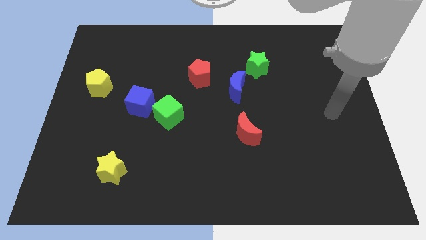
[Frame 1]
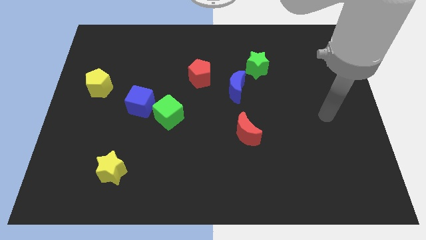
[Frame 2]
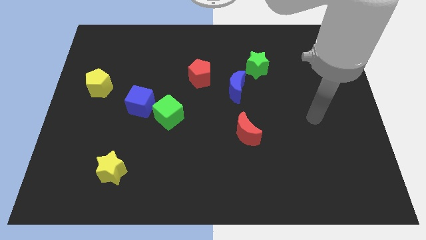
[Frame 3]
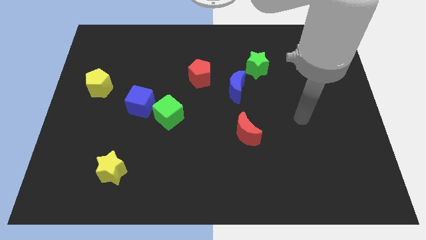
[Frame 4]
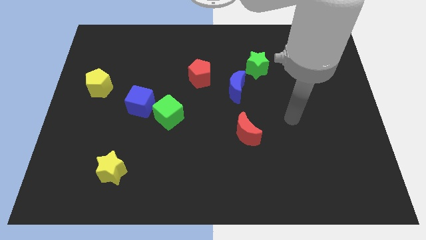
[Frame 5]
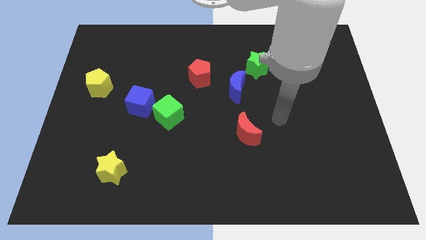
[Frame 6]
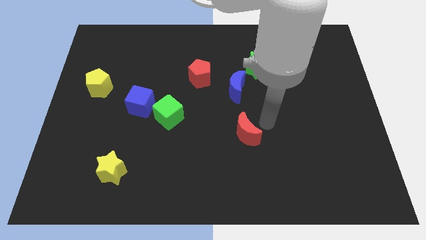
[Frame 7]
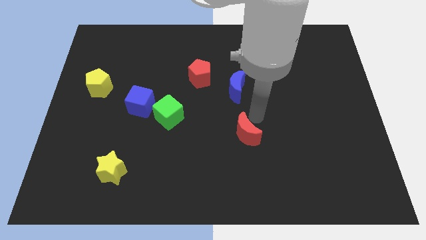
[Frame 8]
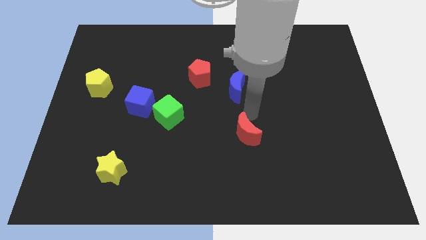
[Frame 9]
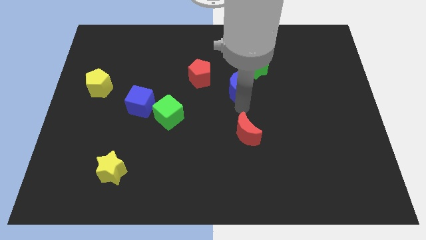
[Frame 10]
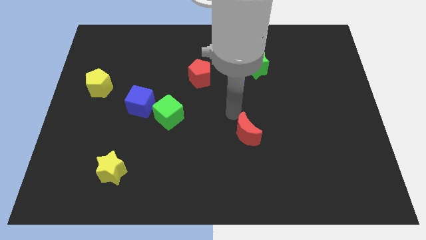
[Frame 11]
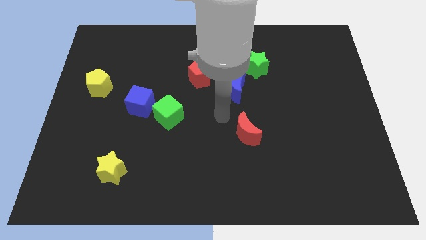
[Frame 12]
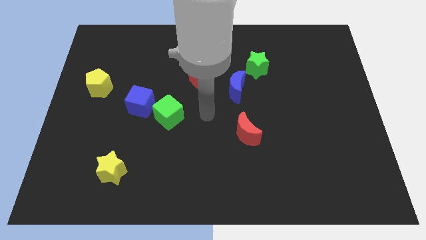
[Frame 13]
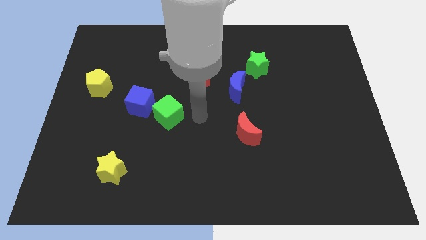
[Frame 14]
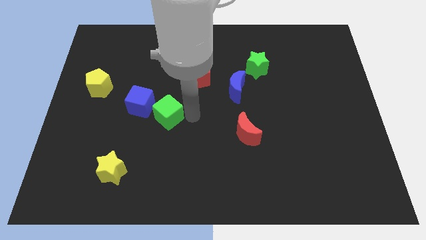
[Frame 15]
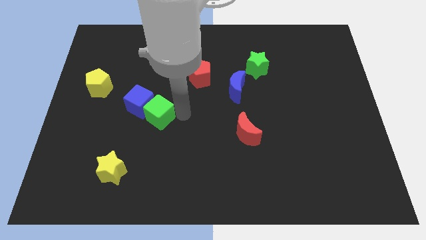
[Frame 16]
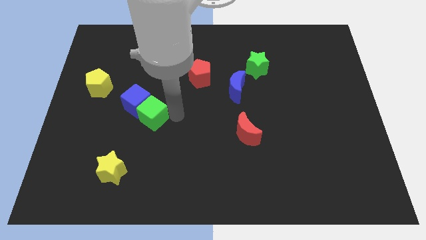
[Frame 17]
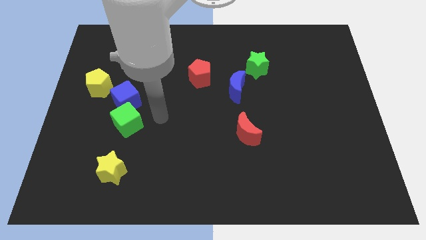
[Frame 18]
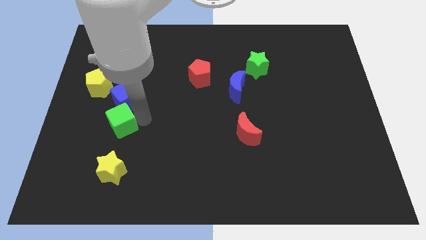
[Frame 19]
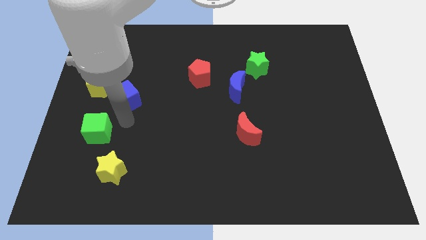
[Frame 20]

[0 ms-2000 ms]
move the blue cube away from the green cube

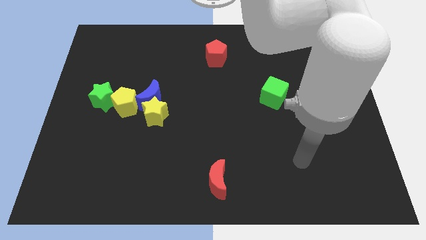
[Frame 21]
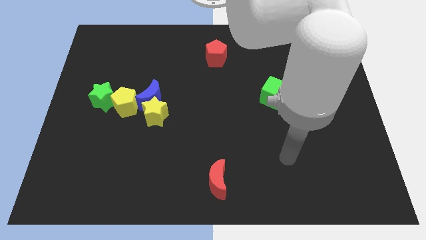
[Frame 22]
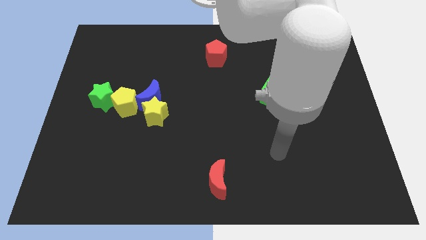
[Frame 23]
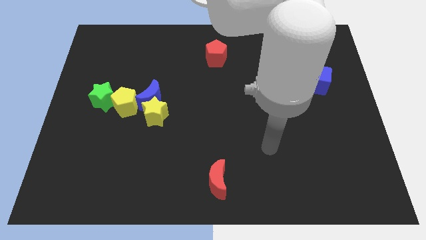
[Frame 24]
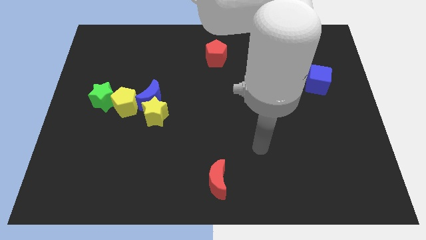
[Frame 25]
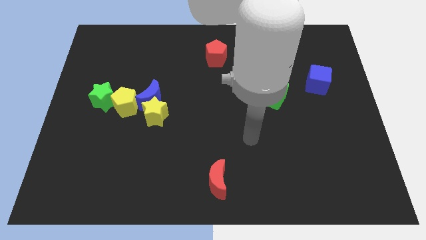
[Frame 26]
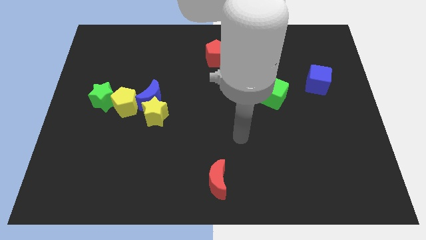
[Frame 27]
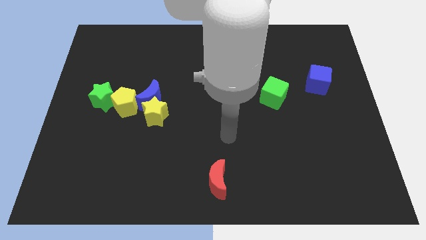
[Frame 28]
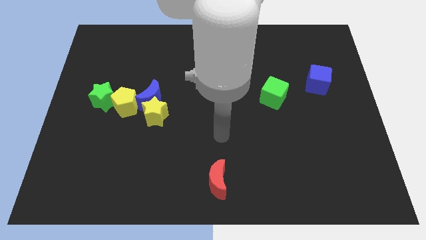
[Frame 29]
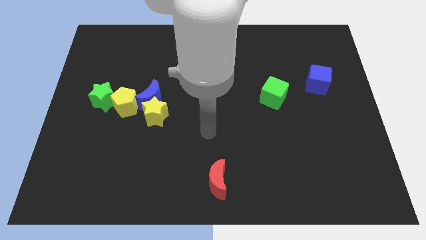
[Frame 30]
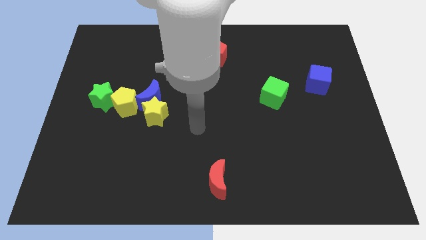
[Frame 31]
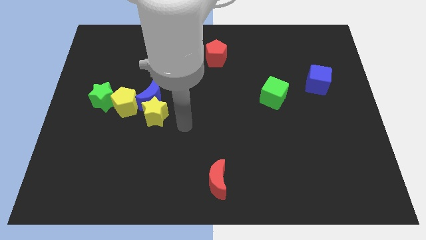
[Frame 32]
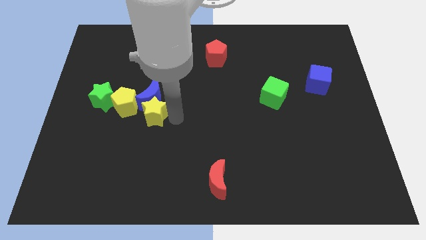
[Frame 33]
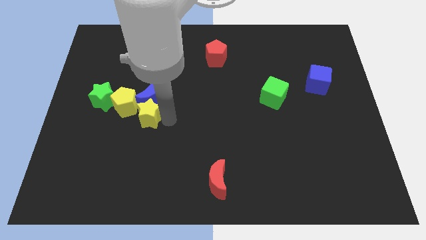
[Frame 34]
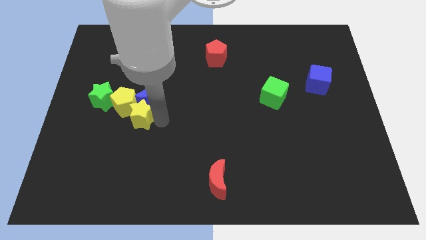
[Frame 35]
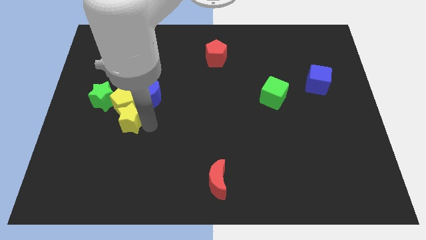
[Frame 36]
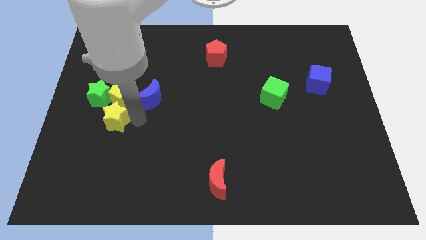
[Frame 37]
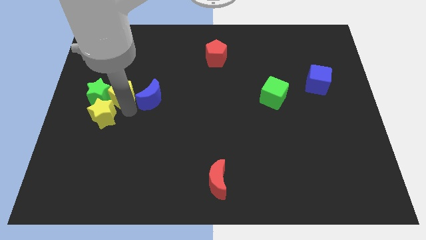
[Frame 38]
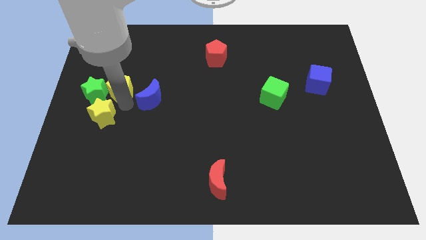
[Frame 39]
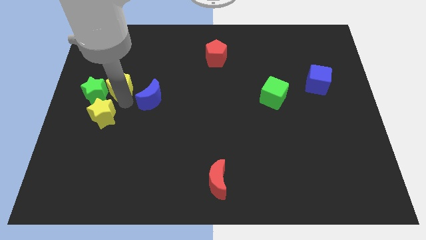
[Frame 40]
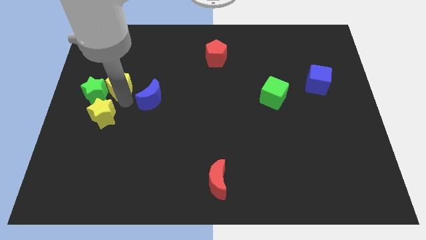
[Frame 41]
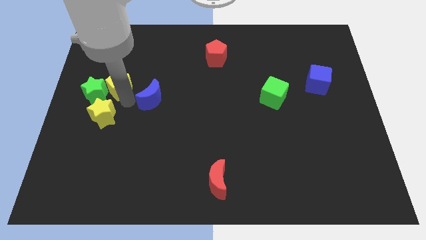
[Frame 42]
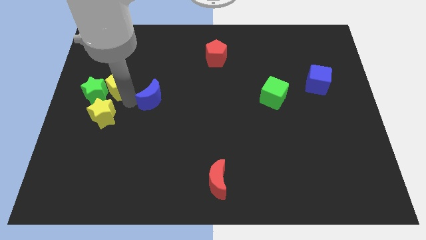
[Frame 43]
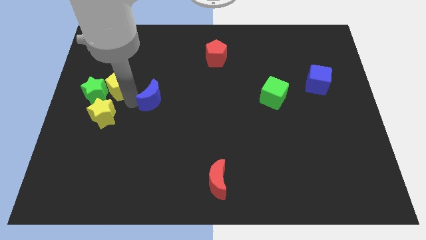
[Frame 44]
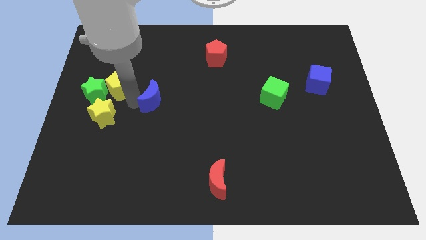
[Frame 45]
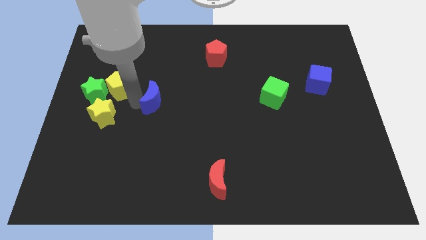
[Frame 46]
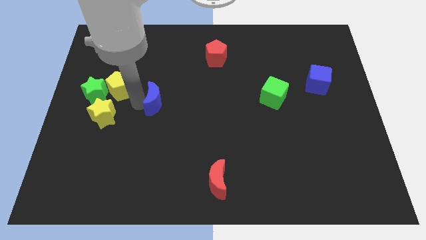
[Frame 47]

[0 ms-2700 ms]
separate the blue moon from the yellow star and yellow pentagon

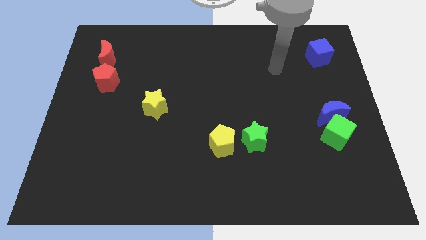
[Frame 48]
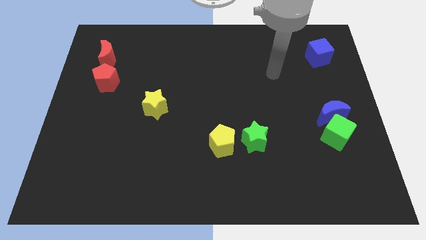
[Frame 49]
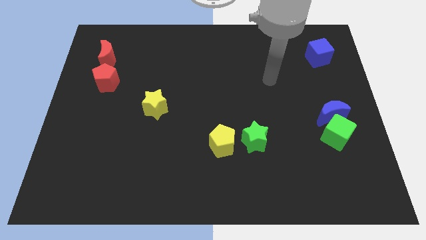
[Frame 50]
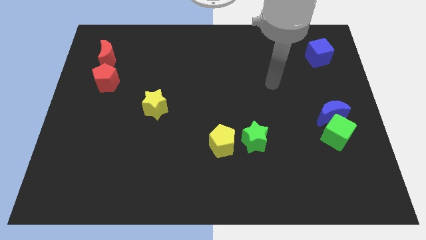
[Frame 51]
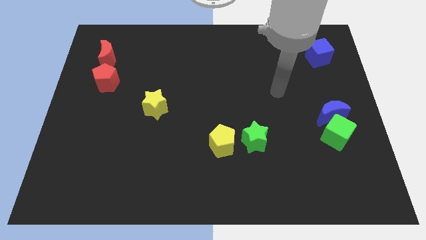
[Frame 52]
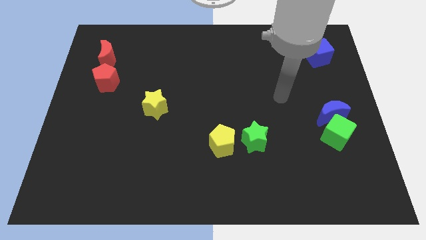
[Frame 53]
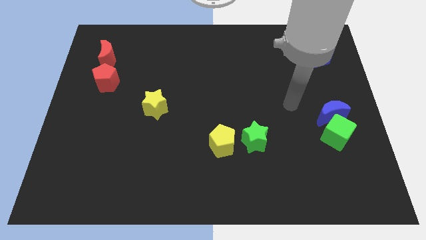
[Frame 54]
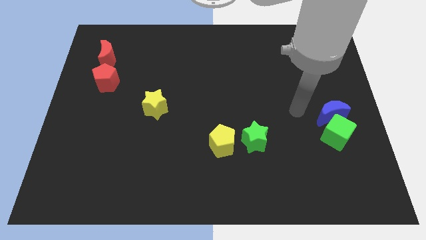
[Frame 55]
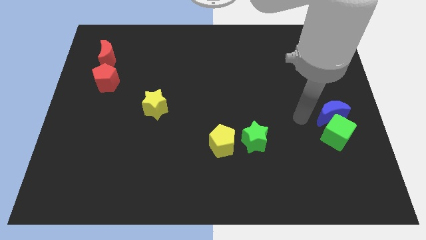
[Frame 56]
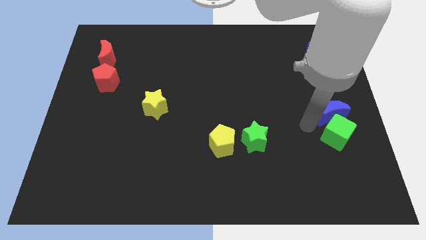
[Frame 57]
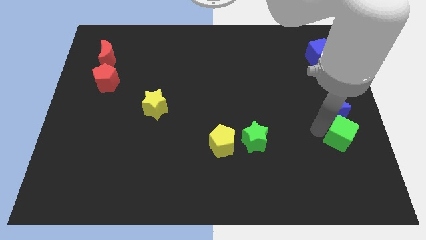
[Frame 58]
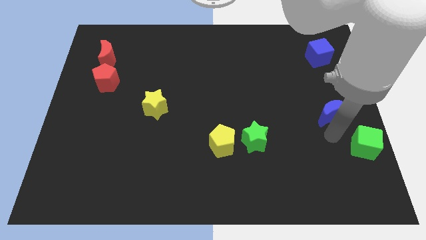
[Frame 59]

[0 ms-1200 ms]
separate the blue moon from the green cube

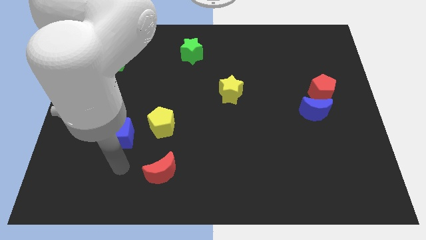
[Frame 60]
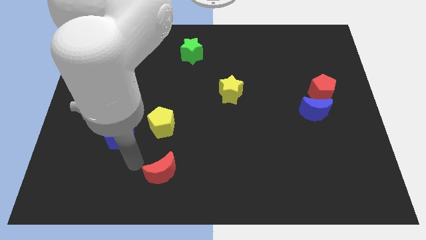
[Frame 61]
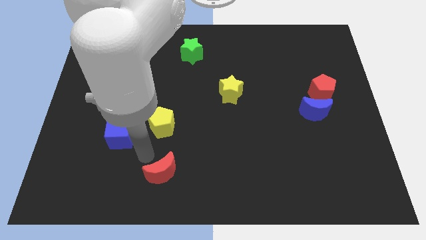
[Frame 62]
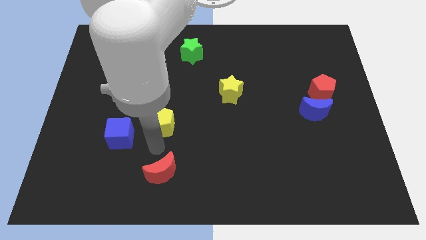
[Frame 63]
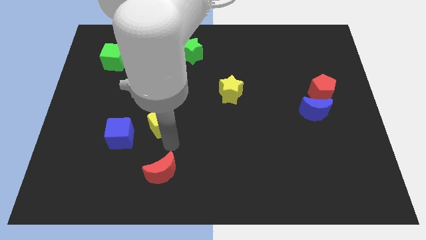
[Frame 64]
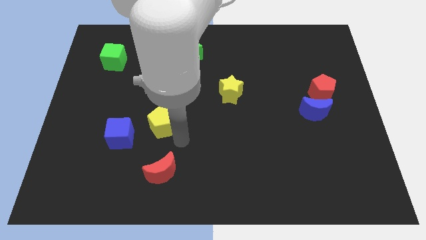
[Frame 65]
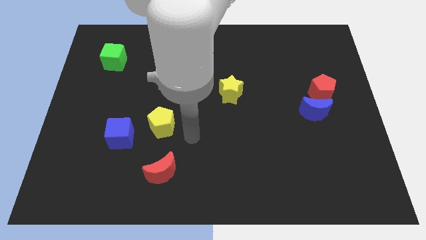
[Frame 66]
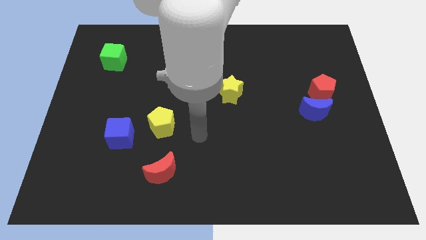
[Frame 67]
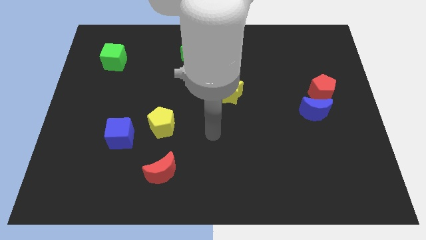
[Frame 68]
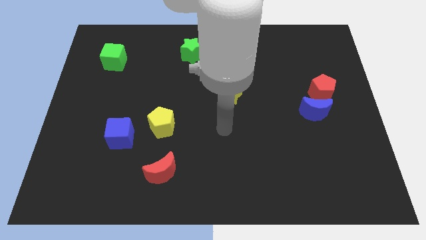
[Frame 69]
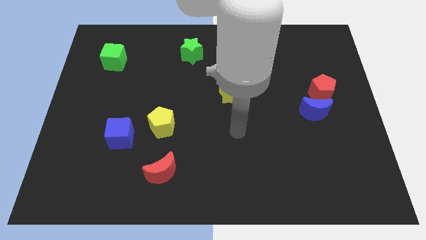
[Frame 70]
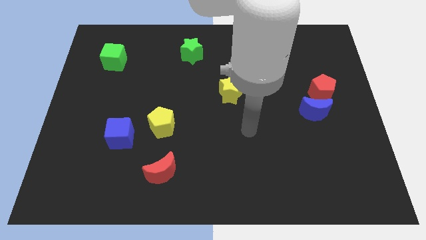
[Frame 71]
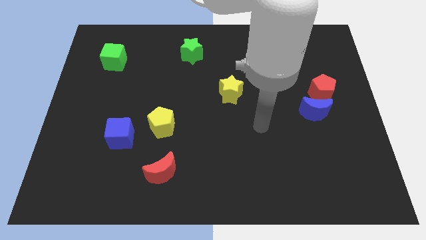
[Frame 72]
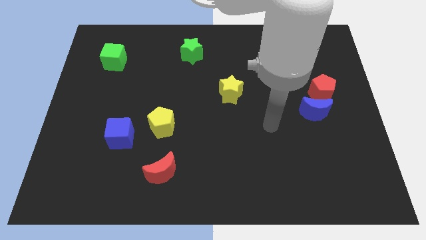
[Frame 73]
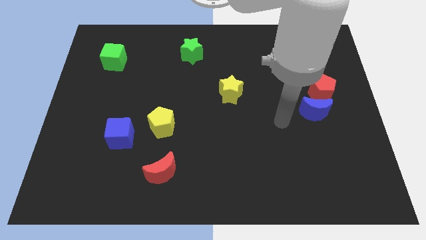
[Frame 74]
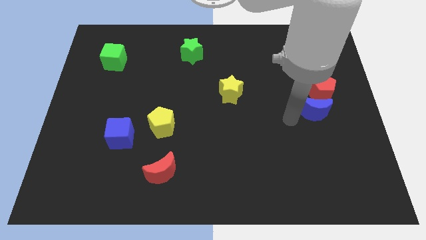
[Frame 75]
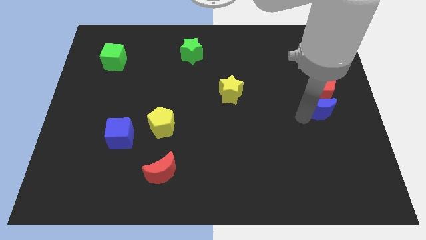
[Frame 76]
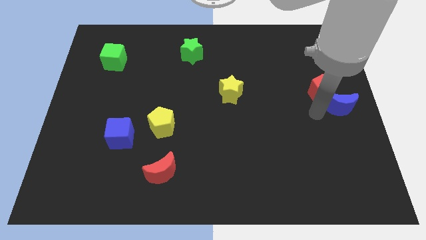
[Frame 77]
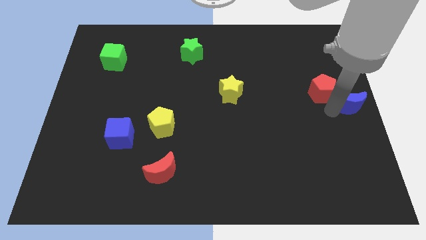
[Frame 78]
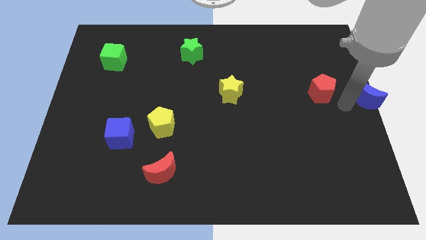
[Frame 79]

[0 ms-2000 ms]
separate the red pentagon from the blue moon

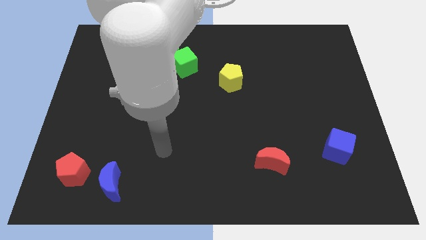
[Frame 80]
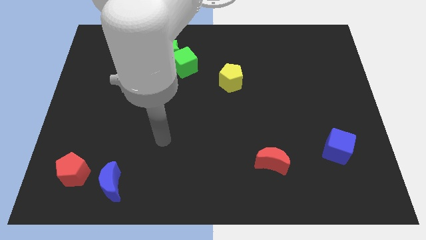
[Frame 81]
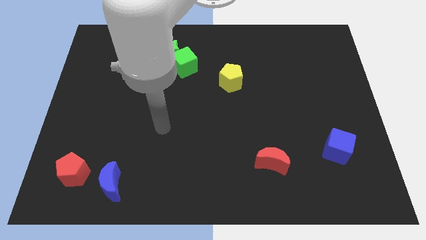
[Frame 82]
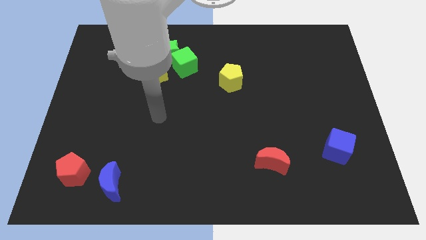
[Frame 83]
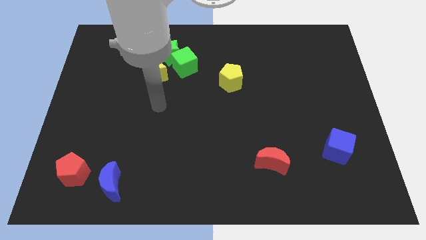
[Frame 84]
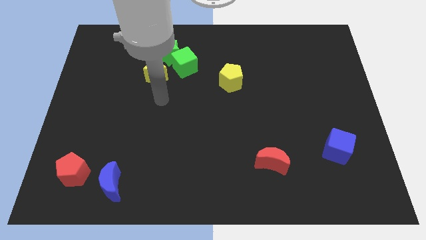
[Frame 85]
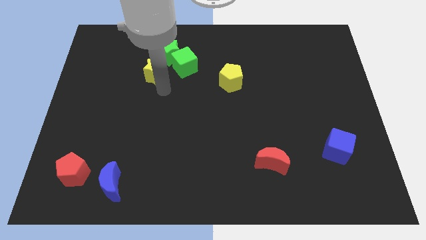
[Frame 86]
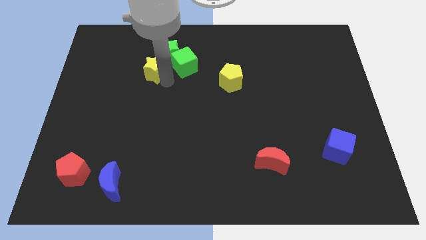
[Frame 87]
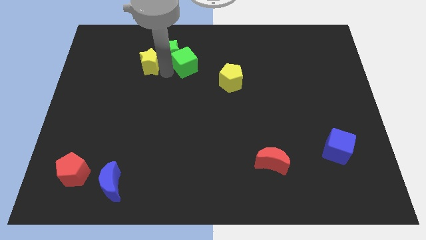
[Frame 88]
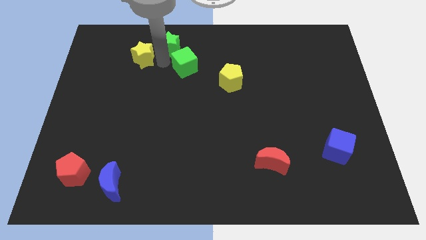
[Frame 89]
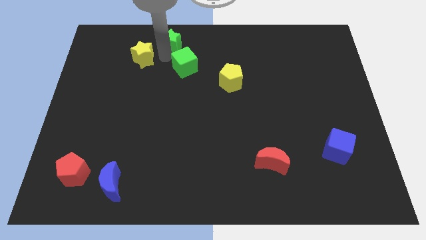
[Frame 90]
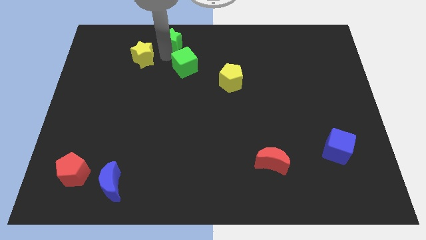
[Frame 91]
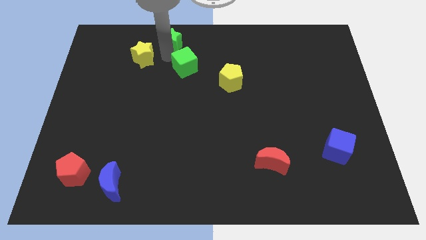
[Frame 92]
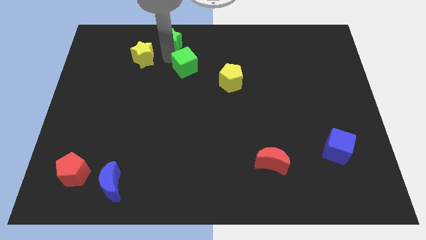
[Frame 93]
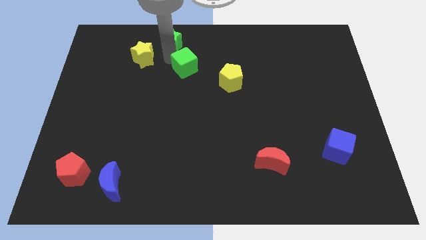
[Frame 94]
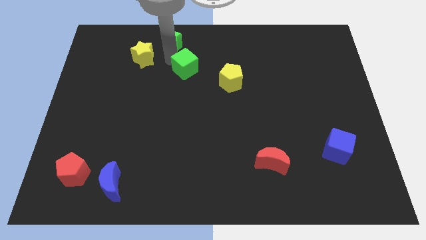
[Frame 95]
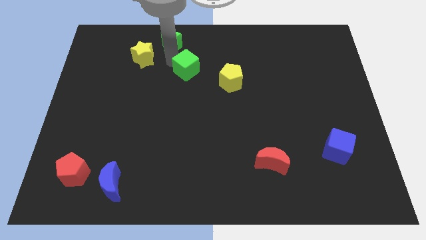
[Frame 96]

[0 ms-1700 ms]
pull the green cube apart from the green star and yellow star
